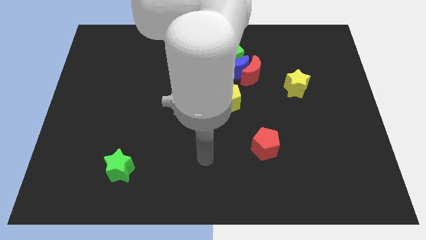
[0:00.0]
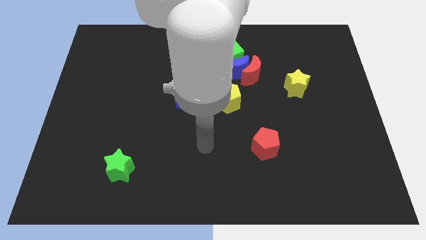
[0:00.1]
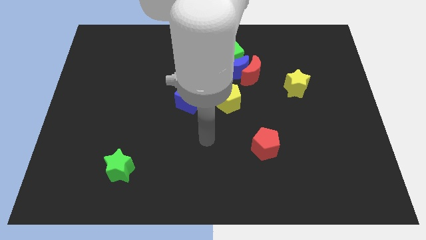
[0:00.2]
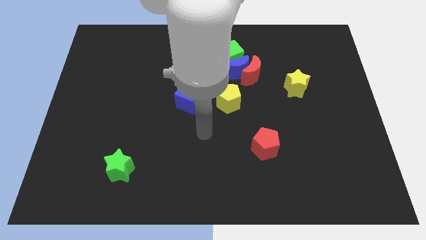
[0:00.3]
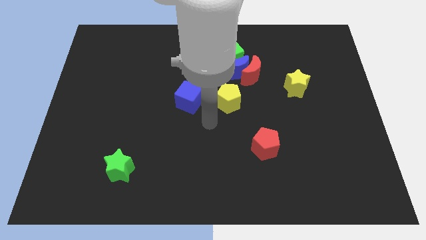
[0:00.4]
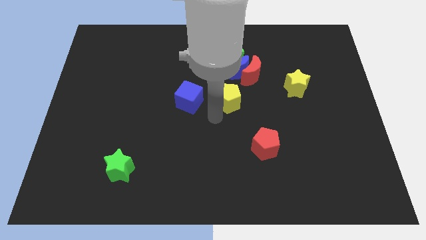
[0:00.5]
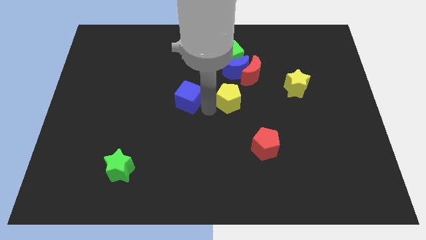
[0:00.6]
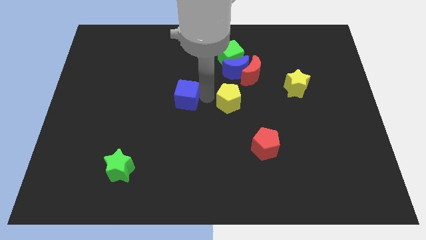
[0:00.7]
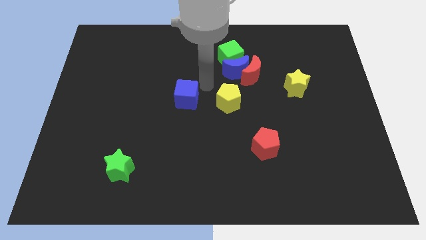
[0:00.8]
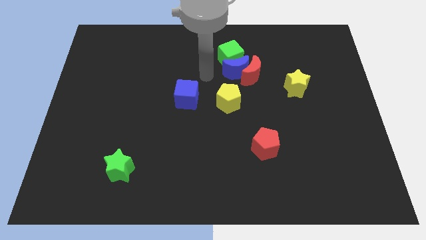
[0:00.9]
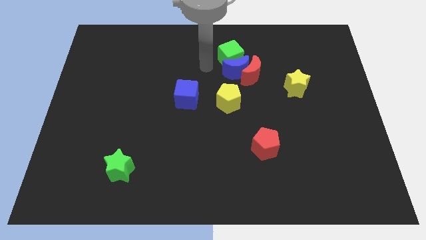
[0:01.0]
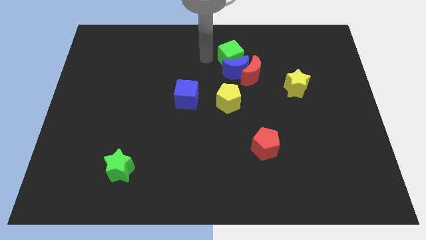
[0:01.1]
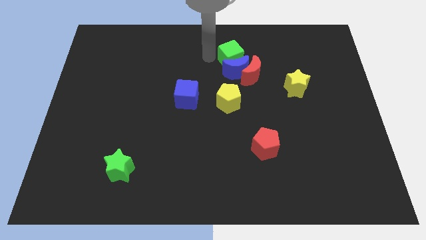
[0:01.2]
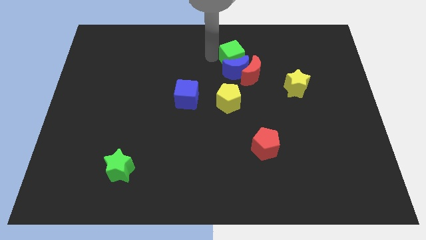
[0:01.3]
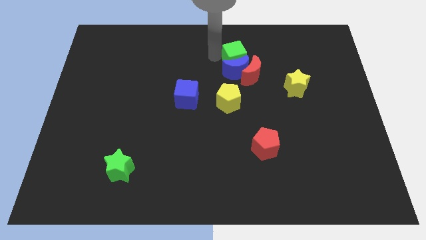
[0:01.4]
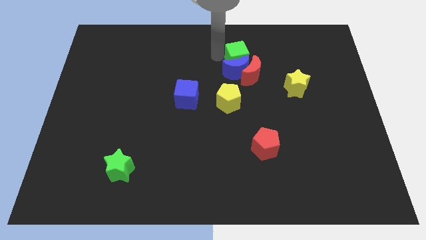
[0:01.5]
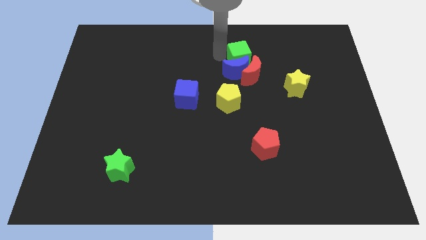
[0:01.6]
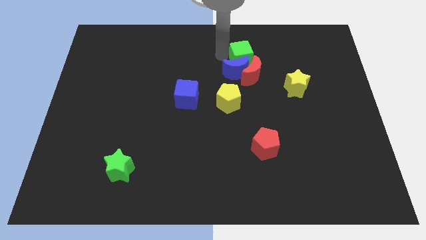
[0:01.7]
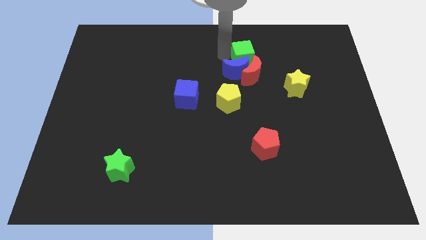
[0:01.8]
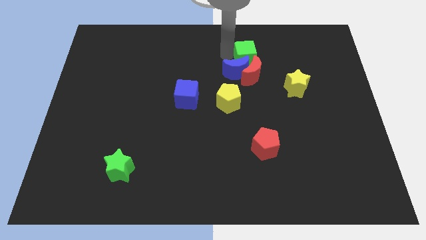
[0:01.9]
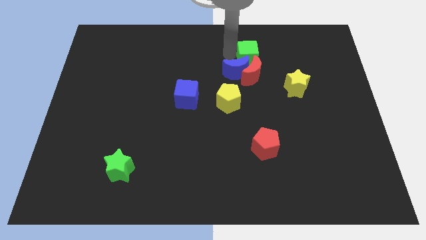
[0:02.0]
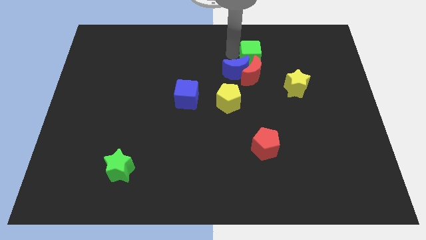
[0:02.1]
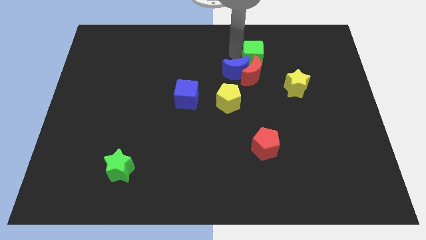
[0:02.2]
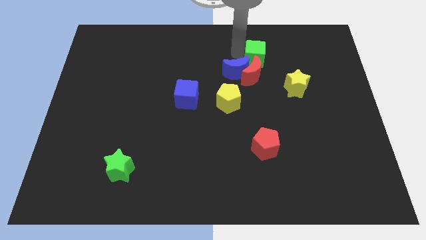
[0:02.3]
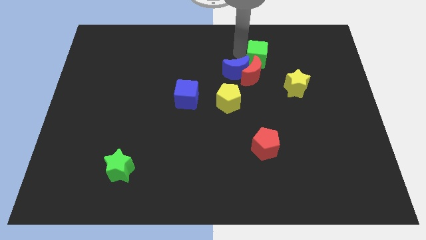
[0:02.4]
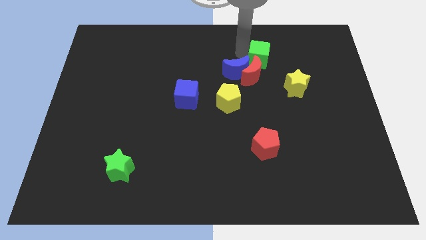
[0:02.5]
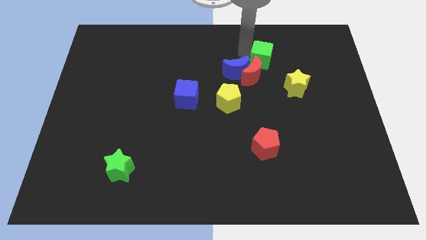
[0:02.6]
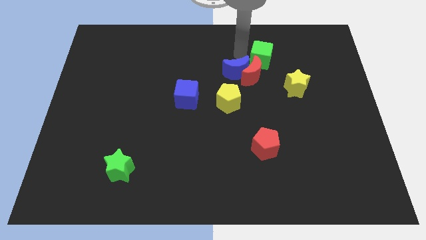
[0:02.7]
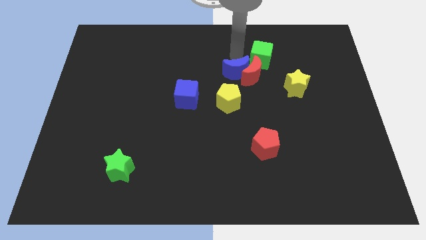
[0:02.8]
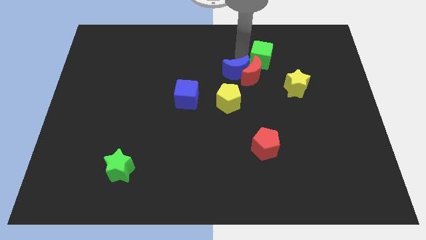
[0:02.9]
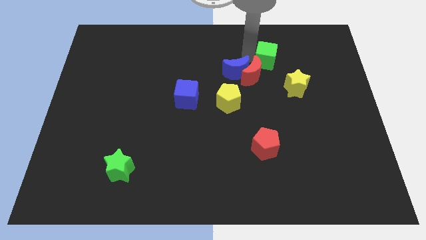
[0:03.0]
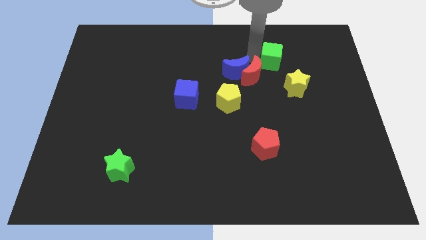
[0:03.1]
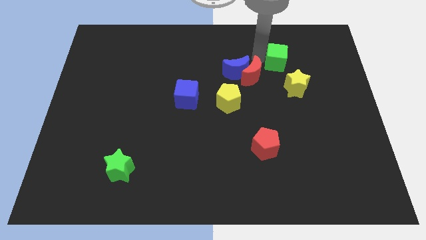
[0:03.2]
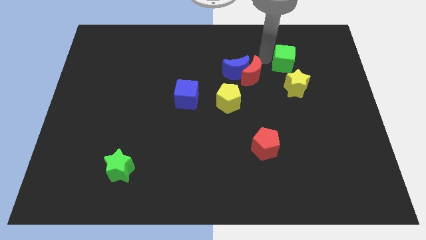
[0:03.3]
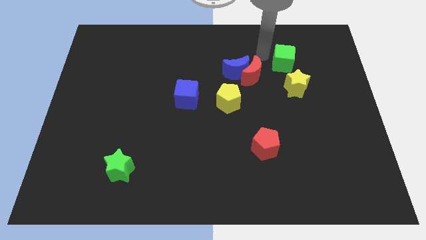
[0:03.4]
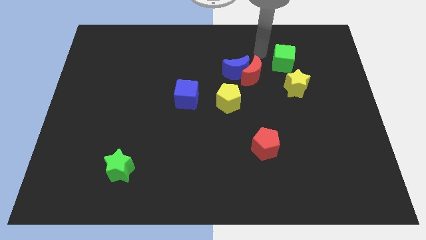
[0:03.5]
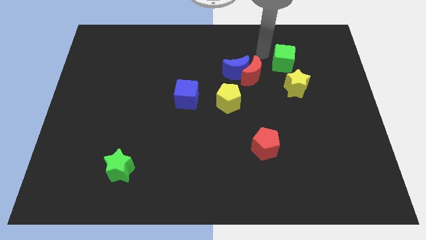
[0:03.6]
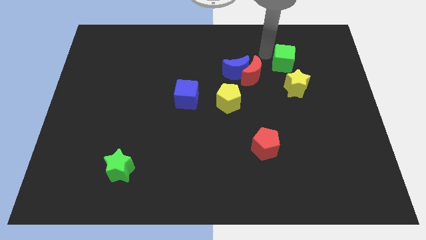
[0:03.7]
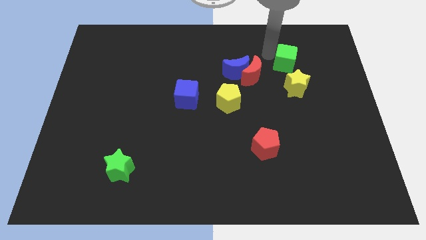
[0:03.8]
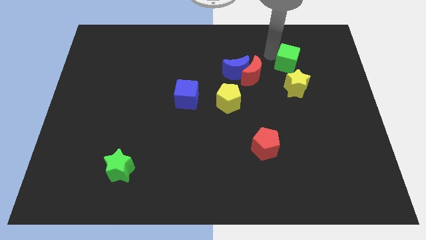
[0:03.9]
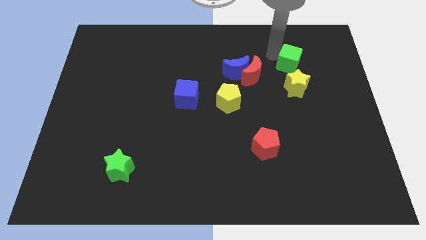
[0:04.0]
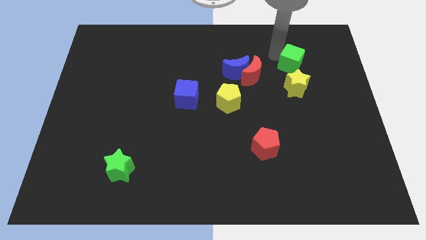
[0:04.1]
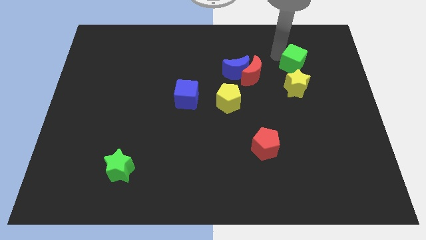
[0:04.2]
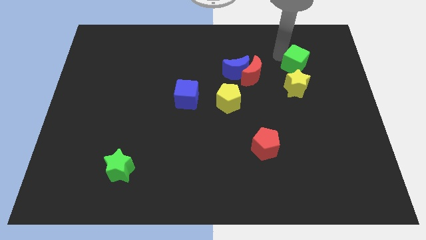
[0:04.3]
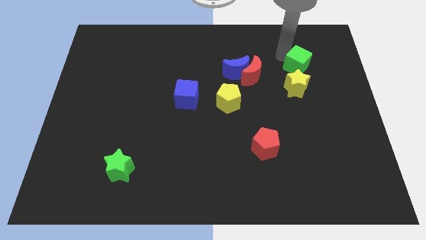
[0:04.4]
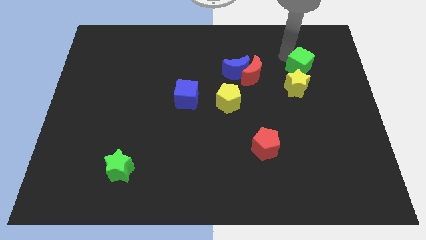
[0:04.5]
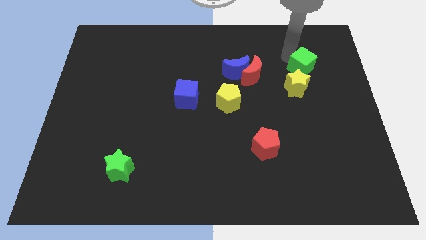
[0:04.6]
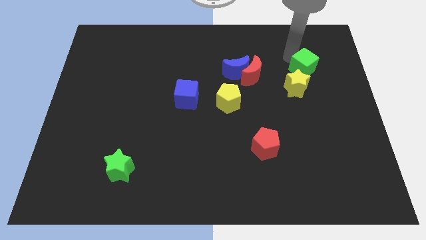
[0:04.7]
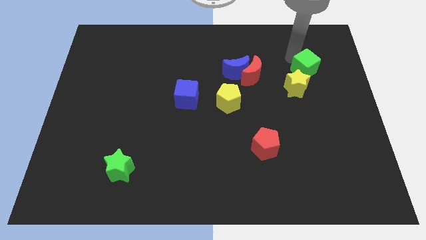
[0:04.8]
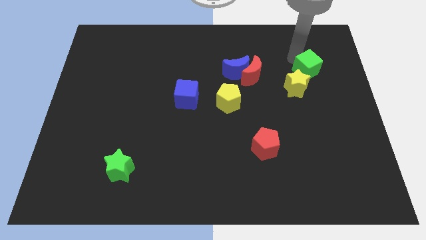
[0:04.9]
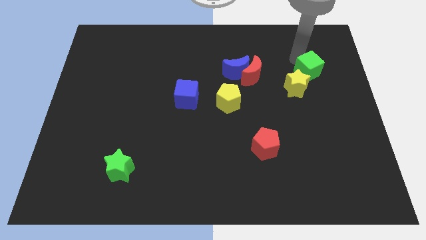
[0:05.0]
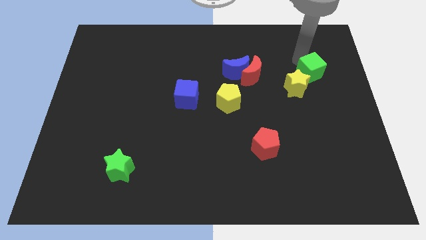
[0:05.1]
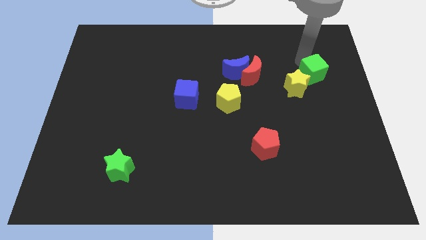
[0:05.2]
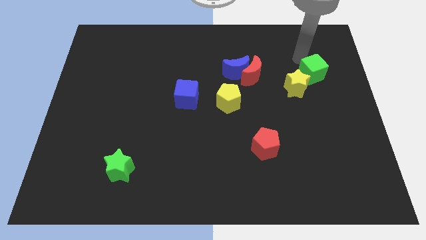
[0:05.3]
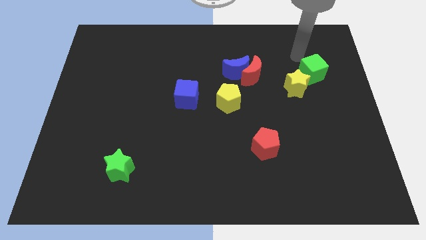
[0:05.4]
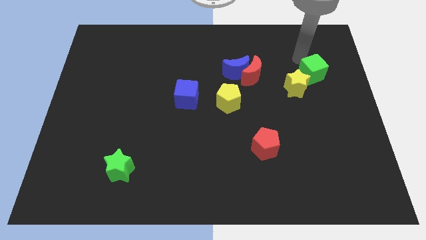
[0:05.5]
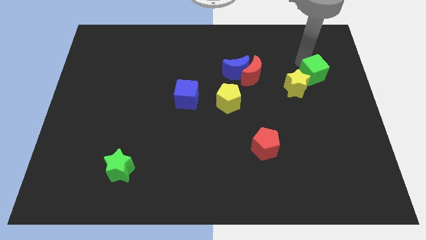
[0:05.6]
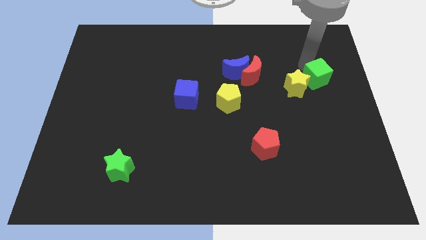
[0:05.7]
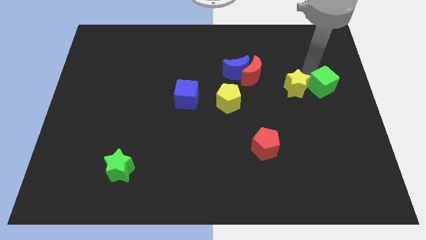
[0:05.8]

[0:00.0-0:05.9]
push the green cube to the center right
